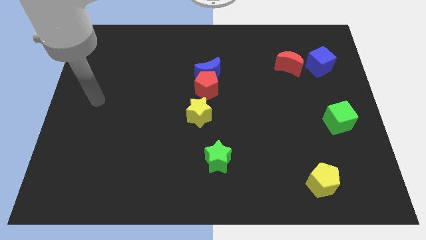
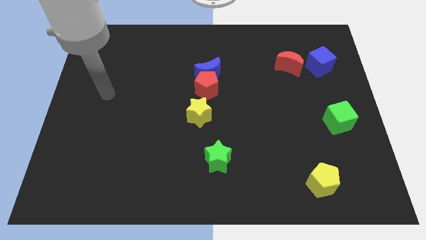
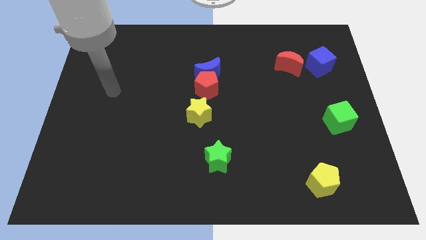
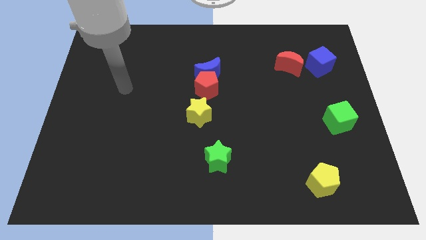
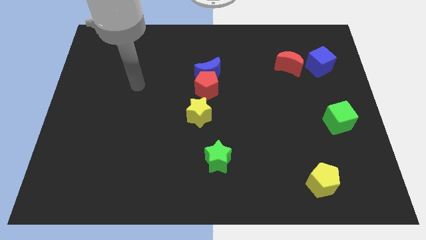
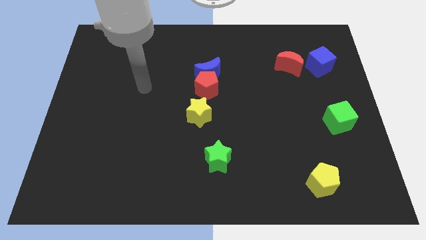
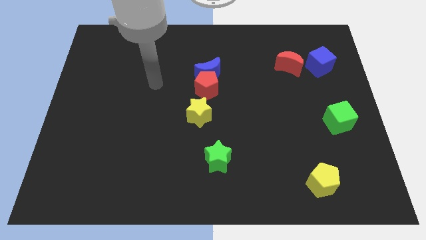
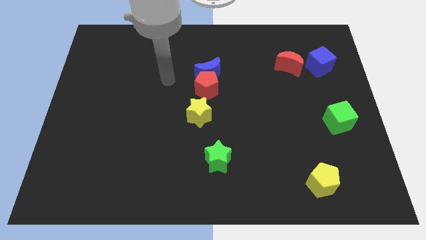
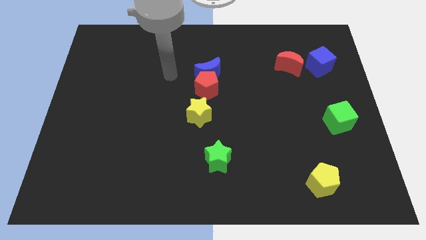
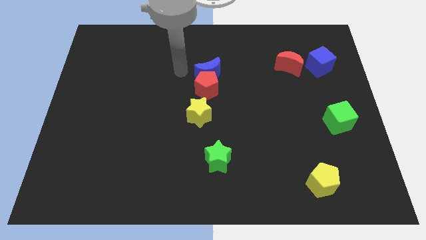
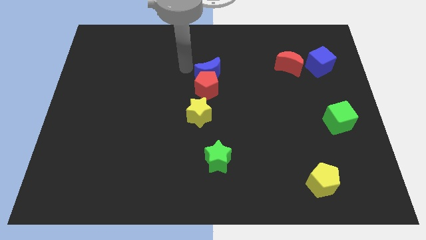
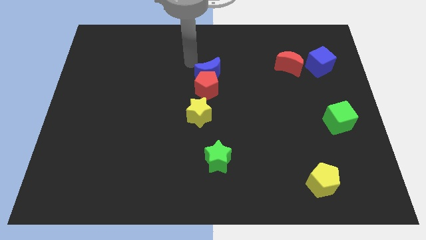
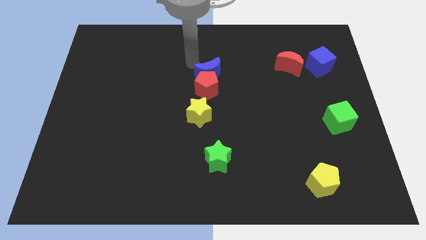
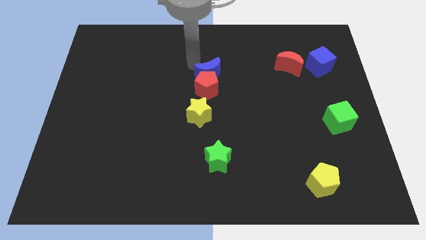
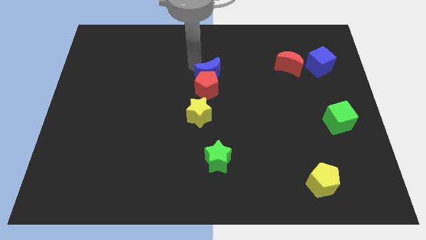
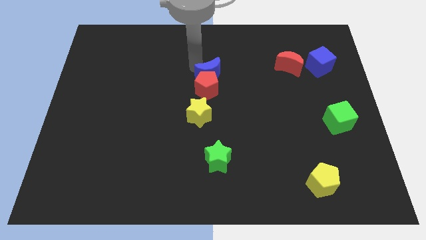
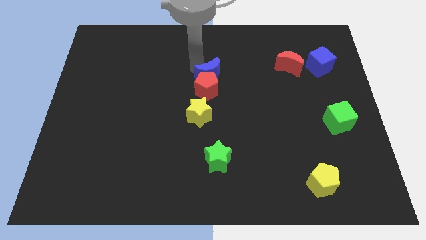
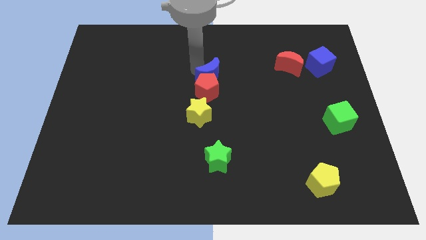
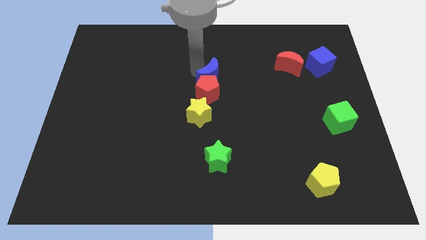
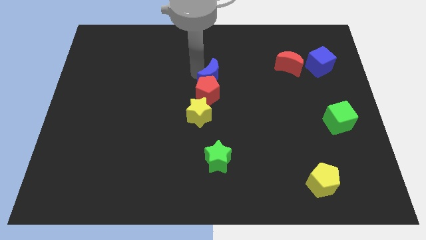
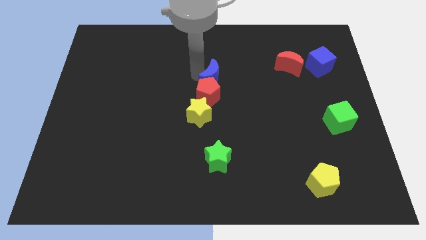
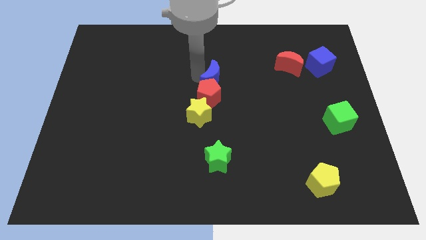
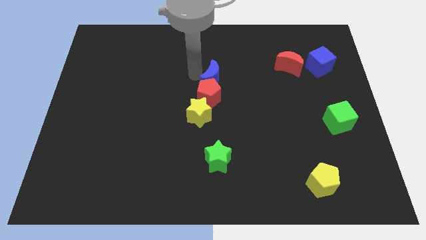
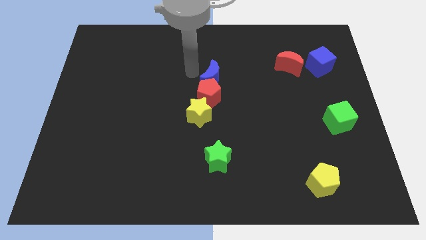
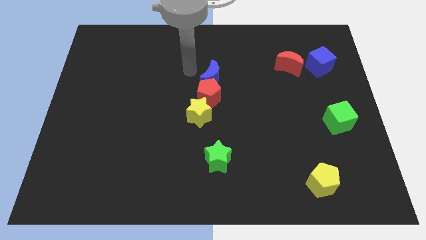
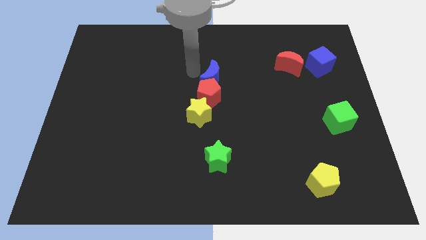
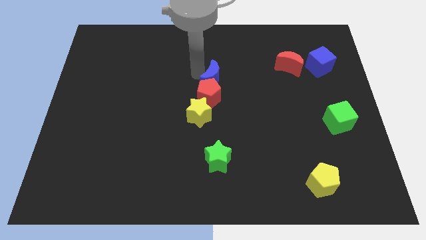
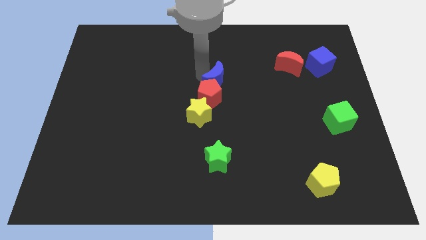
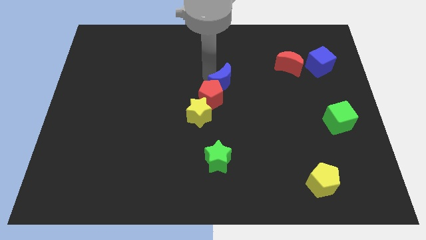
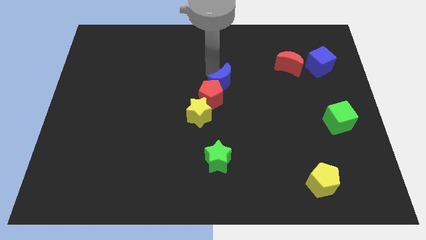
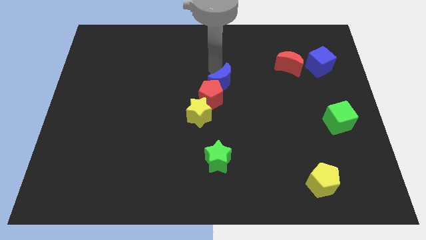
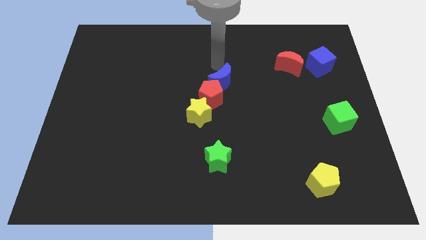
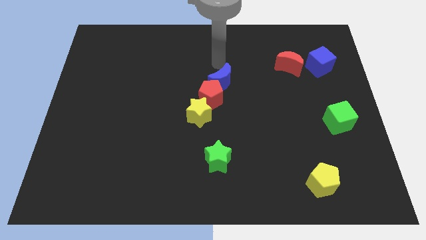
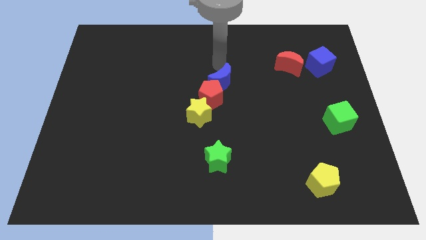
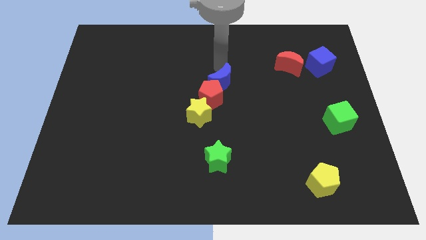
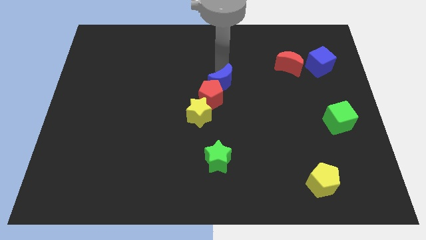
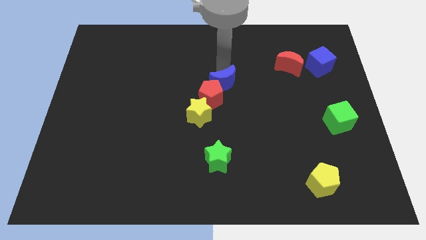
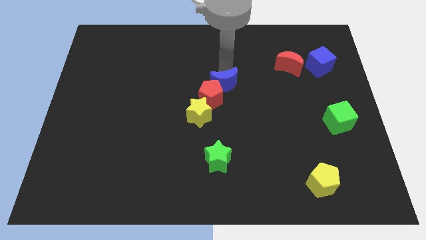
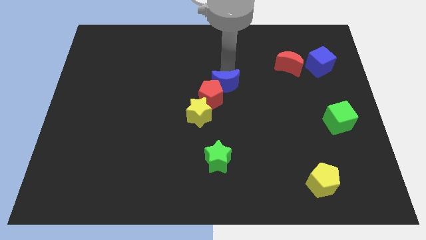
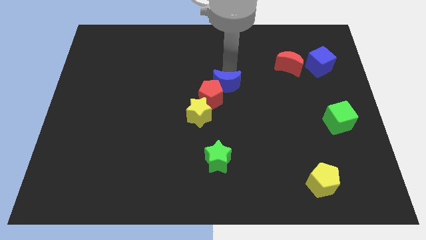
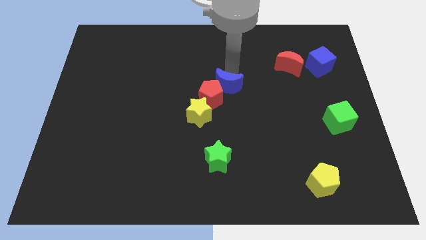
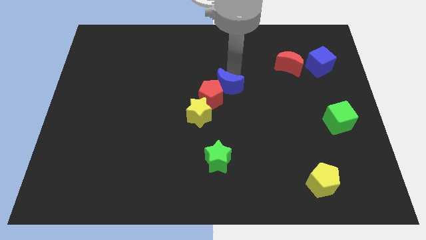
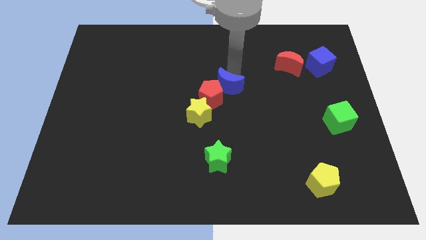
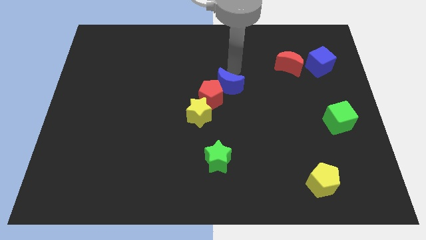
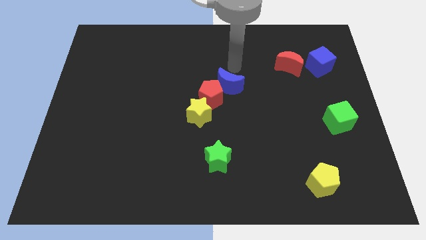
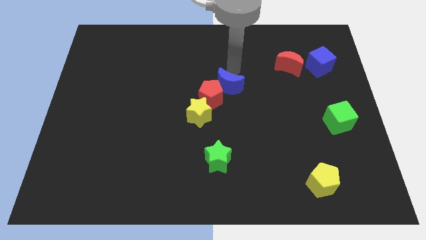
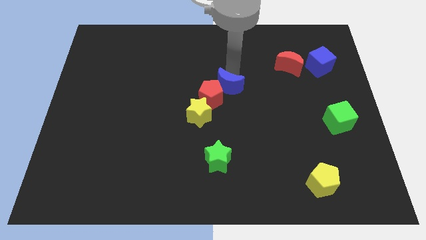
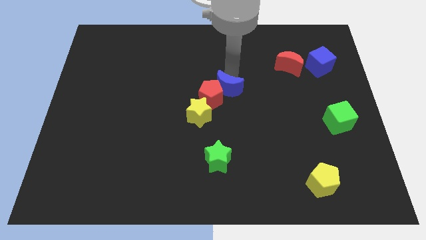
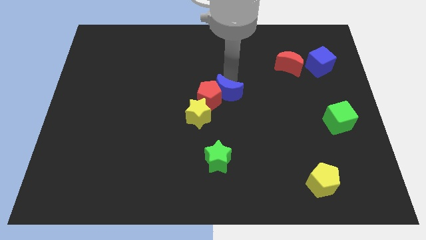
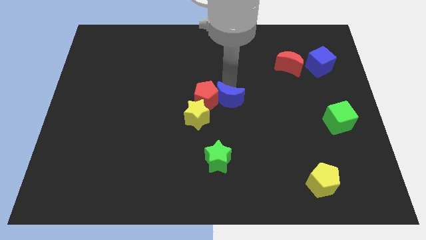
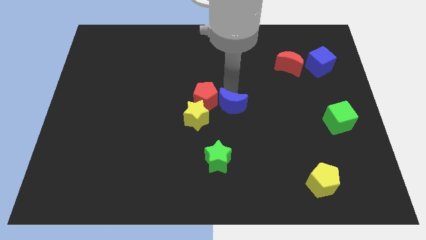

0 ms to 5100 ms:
push the blue moon to the top side of the green star
